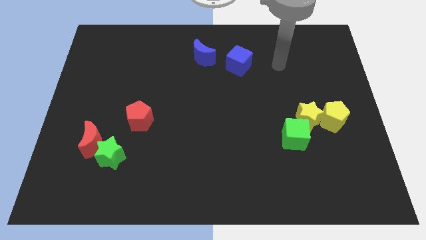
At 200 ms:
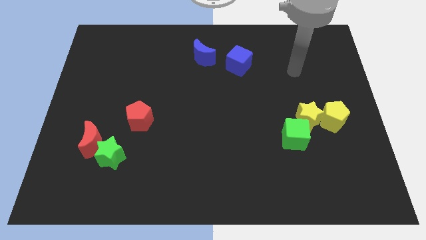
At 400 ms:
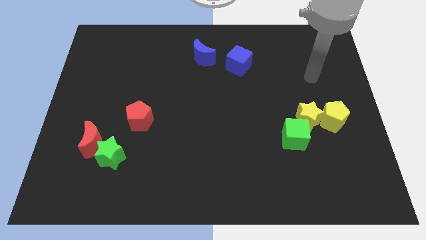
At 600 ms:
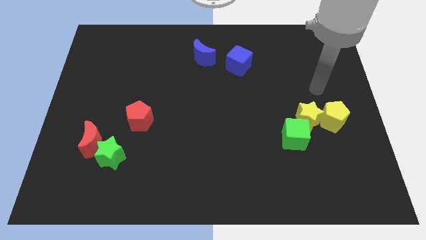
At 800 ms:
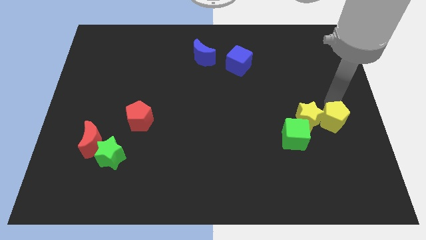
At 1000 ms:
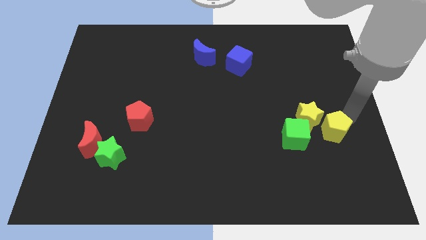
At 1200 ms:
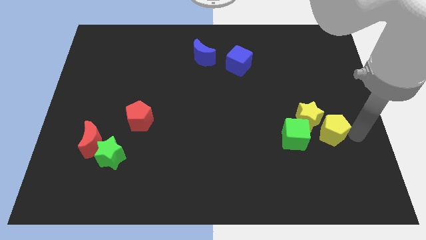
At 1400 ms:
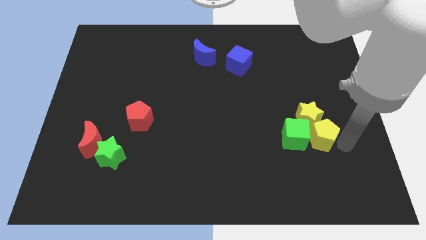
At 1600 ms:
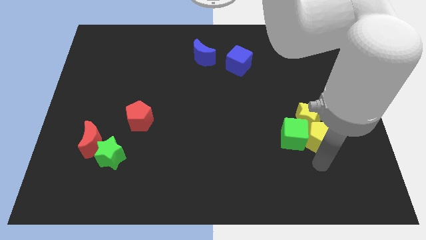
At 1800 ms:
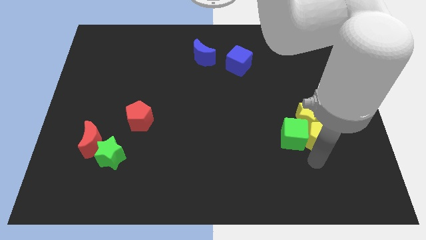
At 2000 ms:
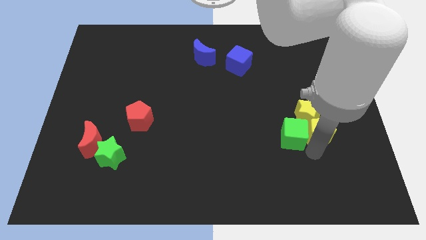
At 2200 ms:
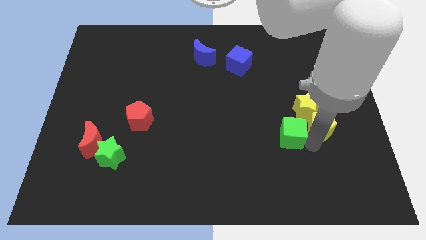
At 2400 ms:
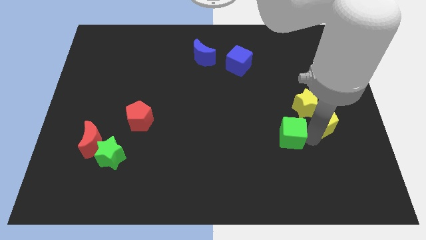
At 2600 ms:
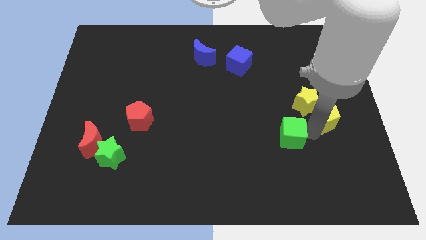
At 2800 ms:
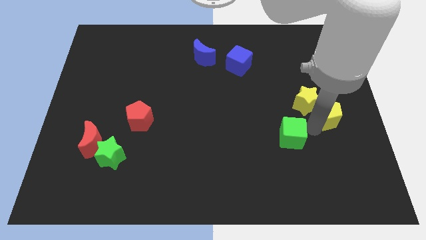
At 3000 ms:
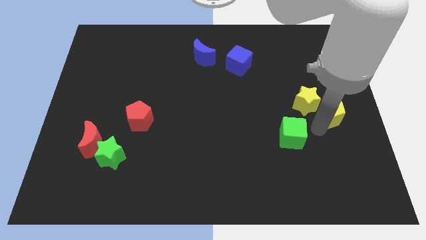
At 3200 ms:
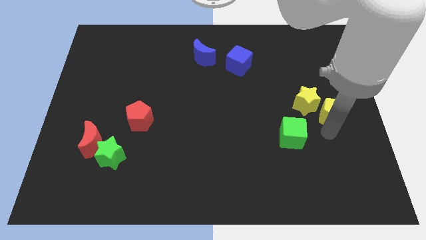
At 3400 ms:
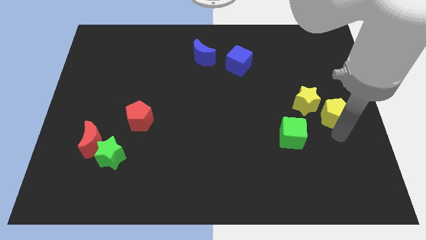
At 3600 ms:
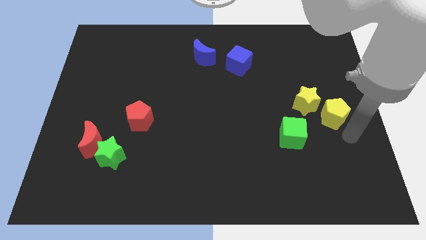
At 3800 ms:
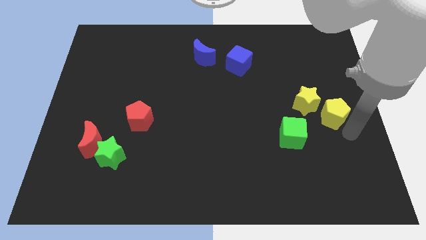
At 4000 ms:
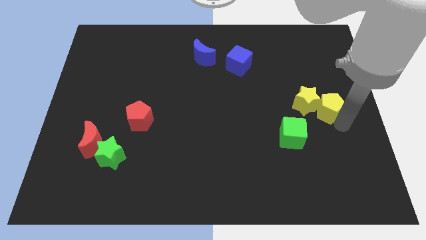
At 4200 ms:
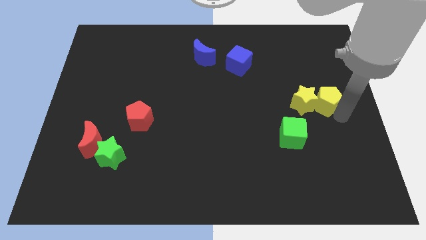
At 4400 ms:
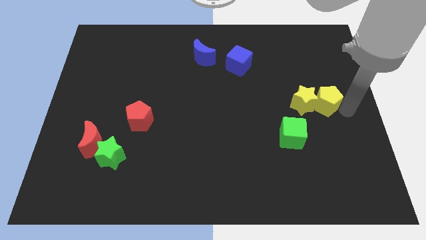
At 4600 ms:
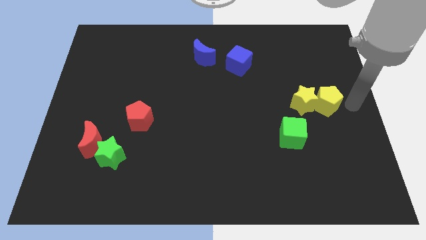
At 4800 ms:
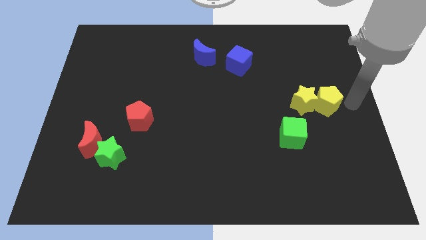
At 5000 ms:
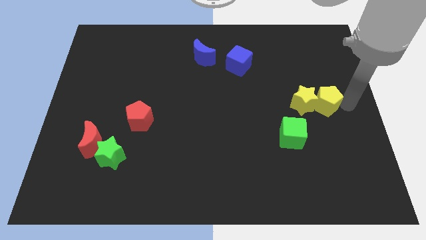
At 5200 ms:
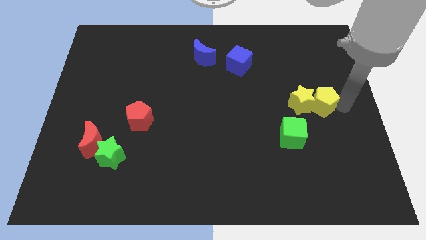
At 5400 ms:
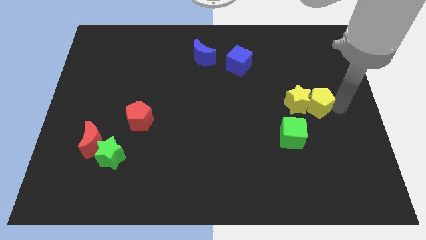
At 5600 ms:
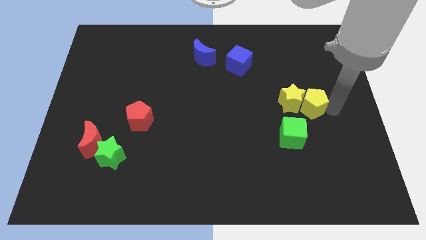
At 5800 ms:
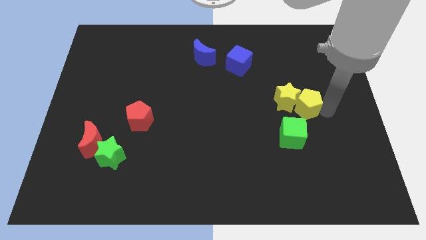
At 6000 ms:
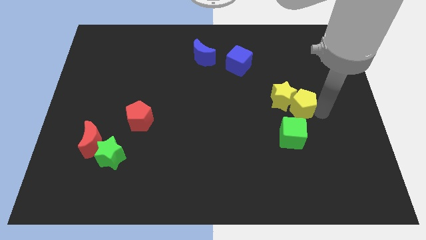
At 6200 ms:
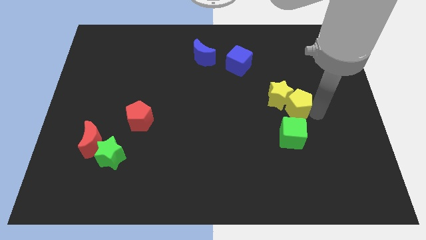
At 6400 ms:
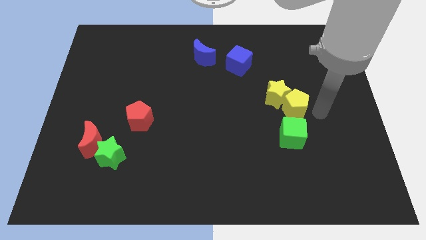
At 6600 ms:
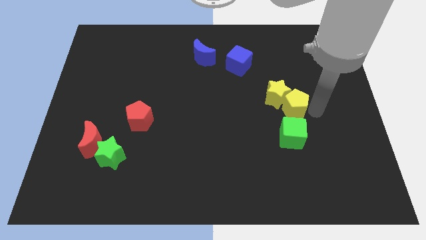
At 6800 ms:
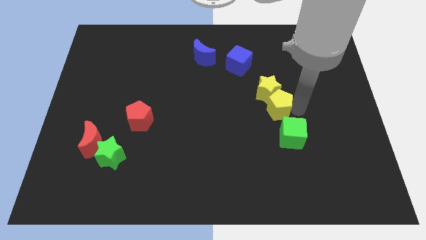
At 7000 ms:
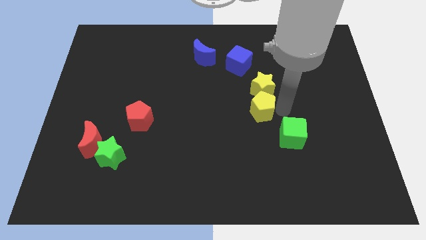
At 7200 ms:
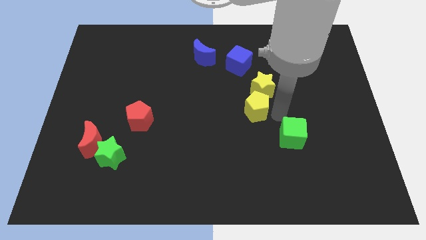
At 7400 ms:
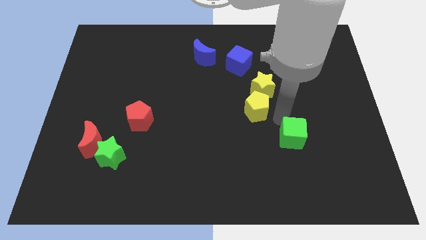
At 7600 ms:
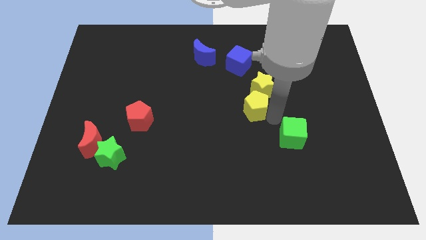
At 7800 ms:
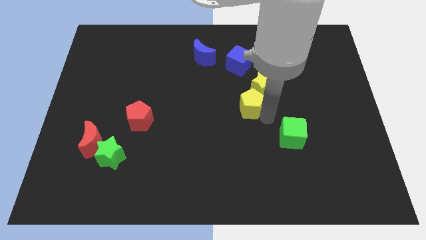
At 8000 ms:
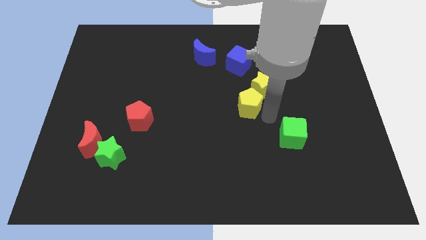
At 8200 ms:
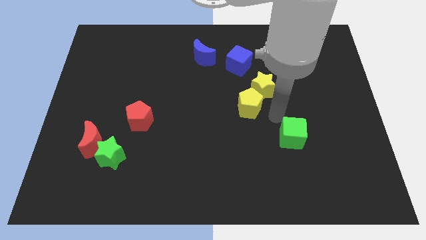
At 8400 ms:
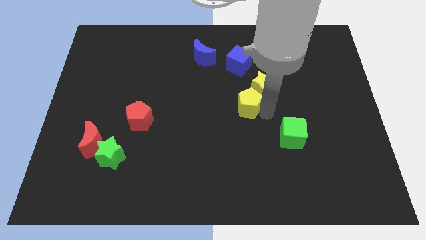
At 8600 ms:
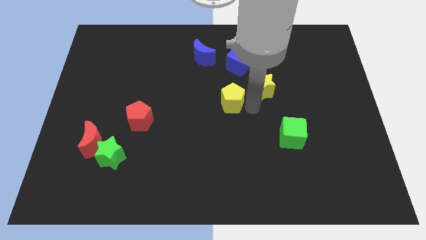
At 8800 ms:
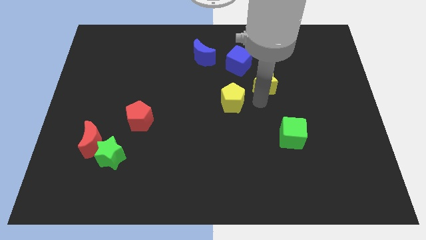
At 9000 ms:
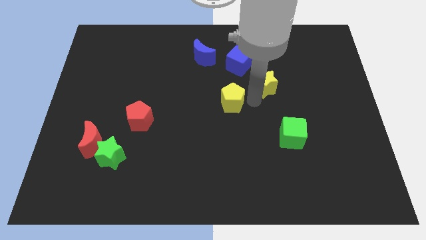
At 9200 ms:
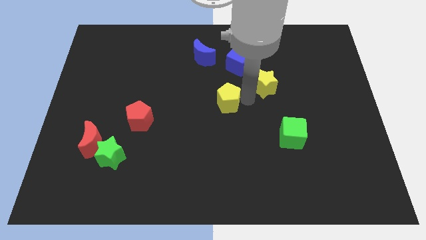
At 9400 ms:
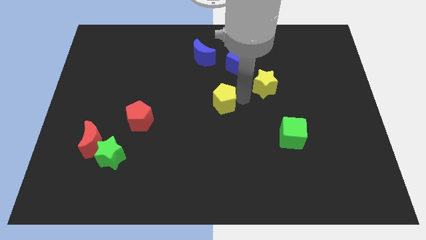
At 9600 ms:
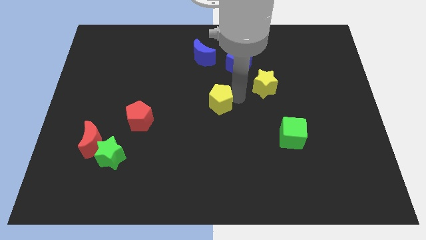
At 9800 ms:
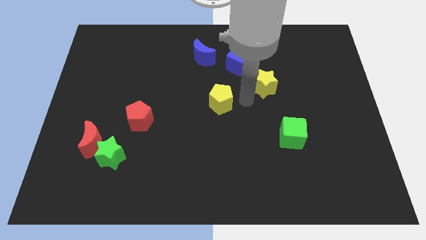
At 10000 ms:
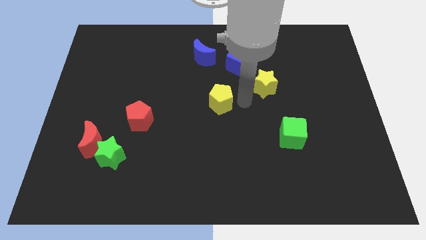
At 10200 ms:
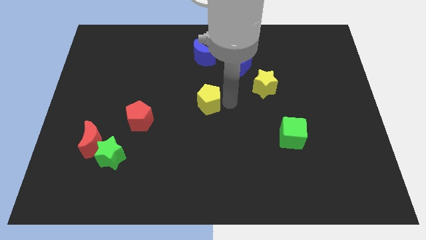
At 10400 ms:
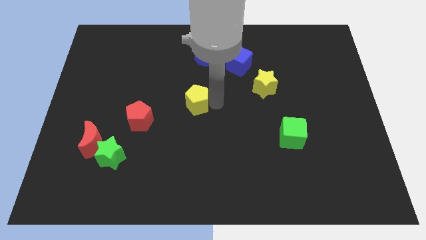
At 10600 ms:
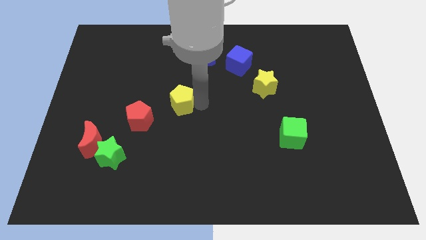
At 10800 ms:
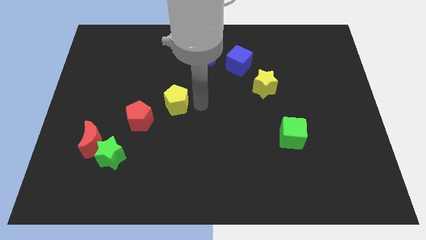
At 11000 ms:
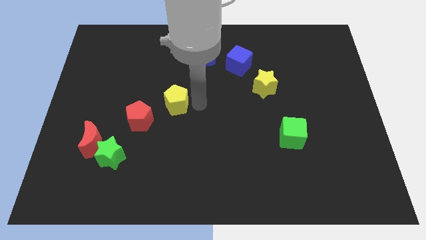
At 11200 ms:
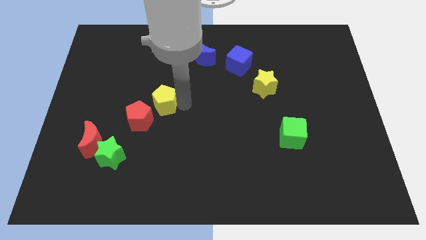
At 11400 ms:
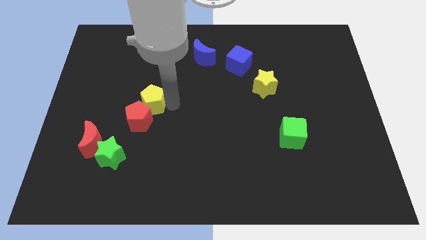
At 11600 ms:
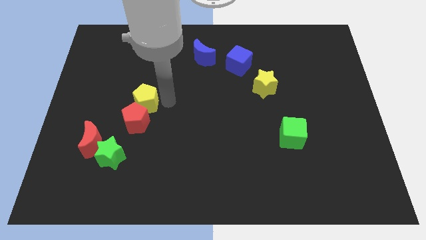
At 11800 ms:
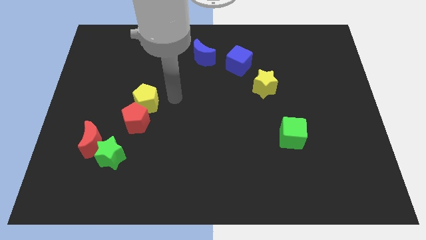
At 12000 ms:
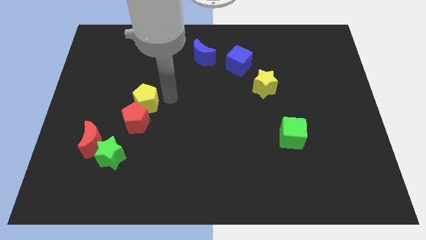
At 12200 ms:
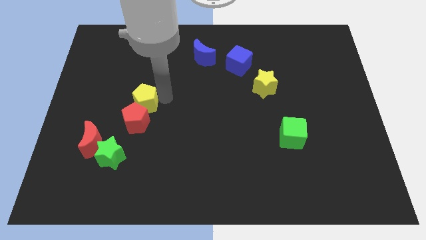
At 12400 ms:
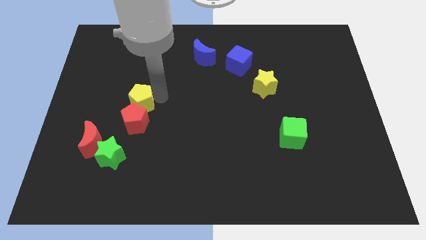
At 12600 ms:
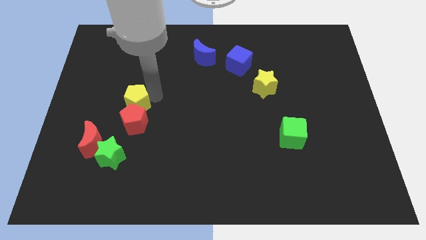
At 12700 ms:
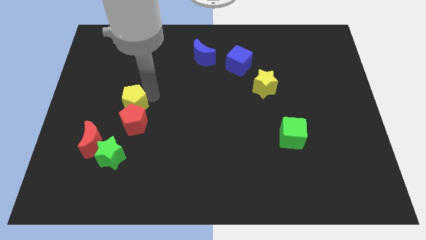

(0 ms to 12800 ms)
slide the yellow pentagon above the green star
